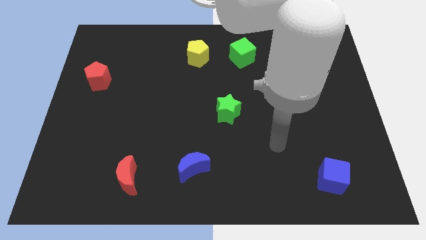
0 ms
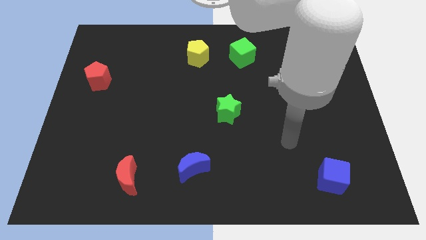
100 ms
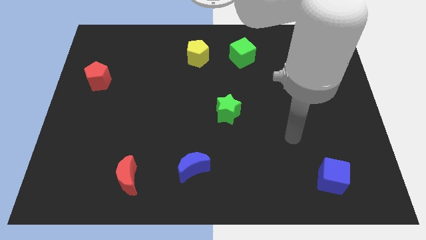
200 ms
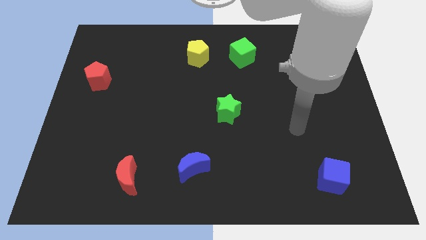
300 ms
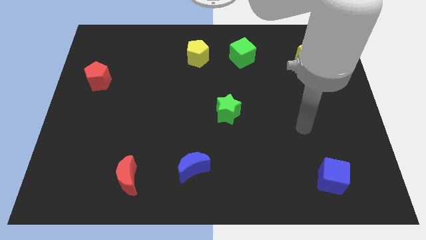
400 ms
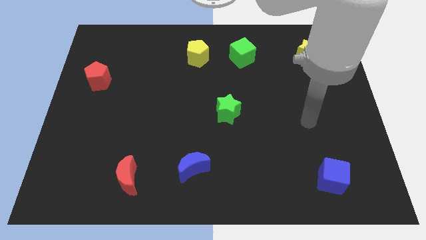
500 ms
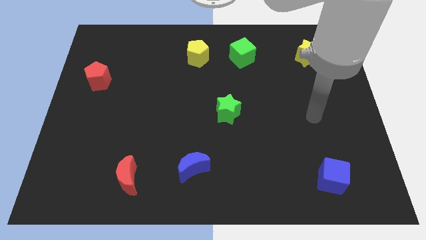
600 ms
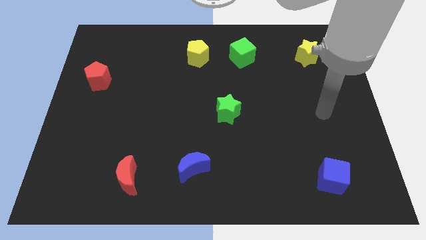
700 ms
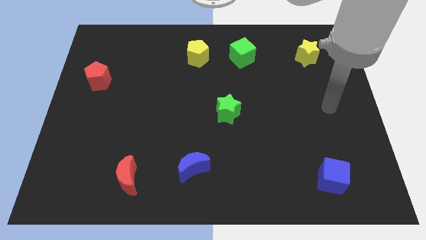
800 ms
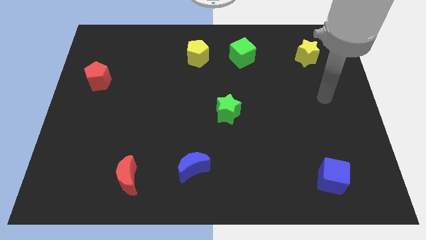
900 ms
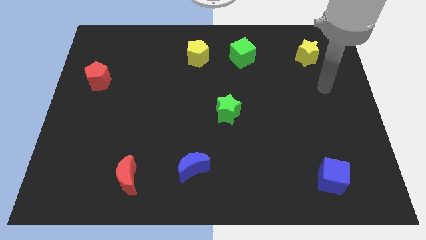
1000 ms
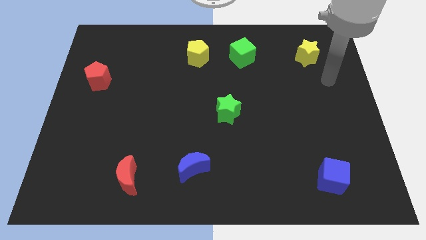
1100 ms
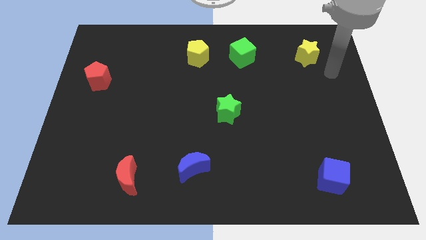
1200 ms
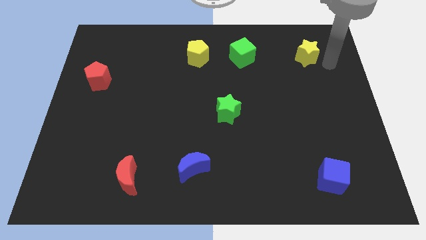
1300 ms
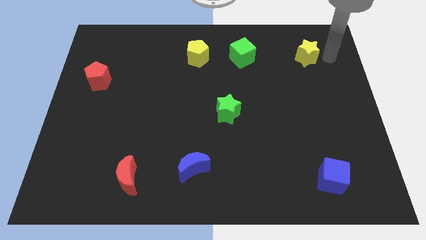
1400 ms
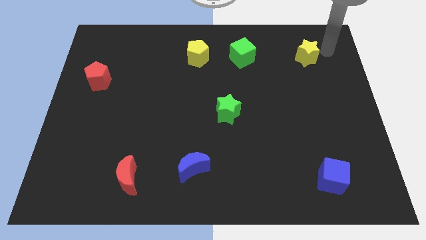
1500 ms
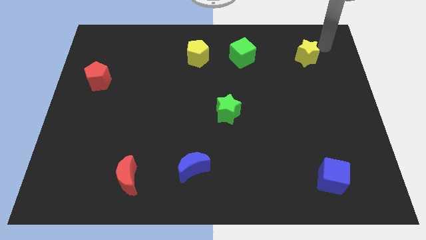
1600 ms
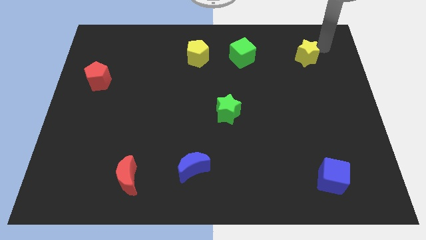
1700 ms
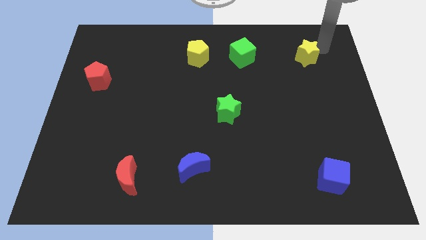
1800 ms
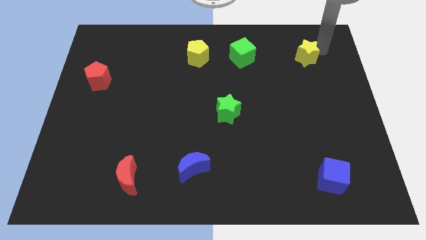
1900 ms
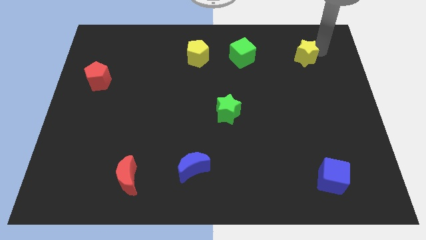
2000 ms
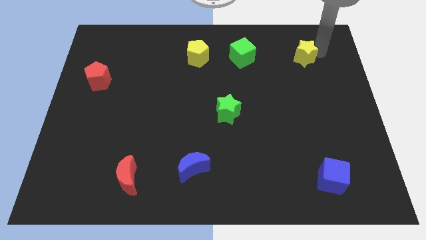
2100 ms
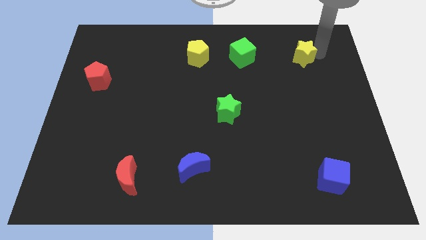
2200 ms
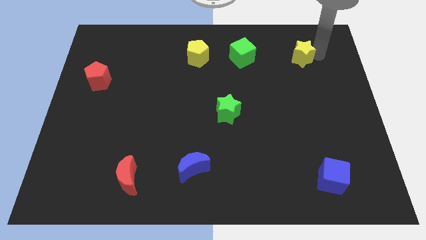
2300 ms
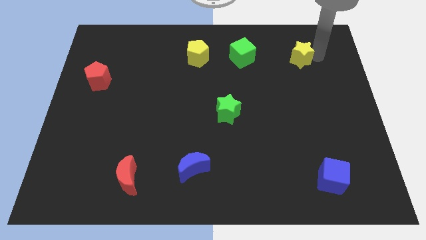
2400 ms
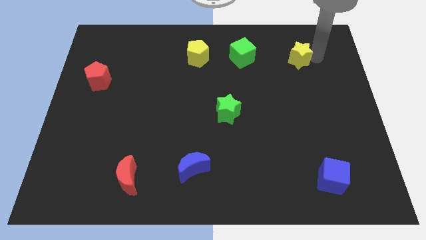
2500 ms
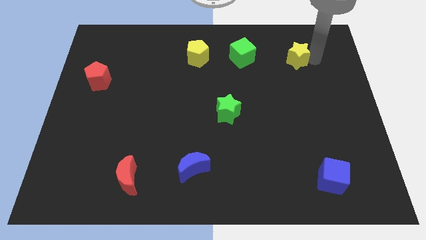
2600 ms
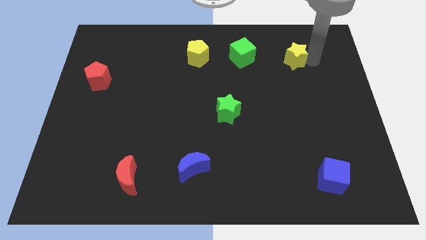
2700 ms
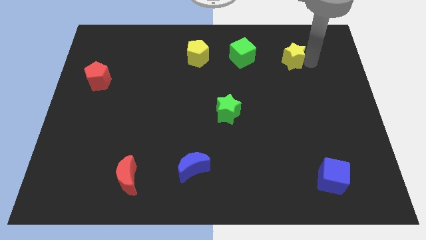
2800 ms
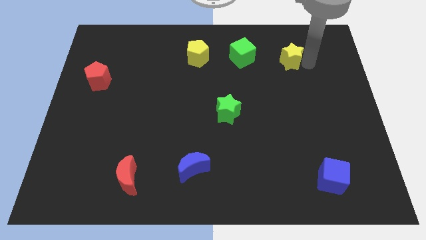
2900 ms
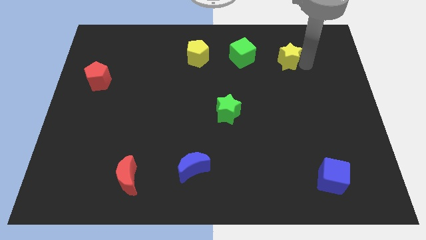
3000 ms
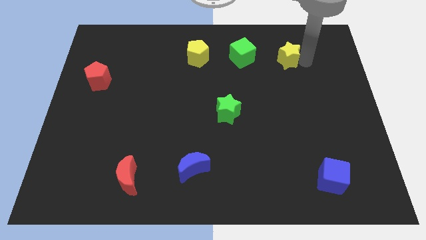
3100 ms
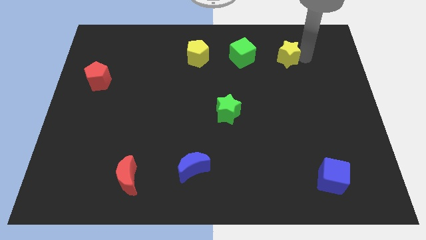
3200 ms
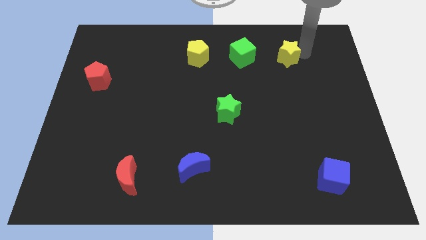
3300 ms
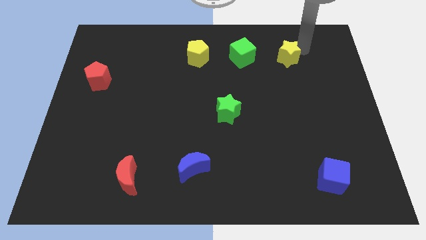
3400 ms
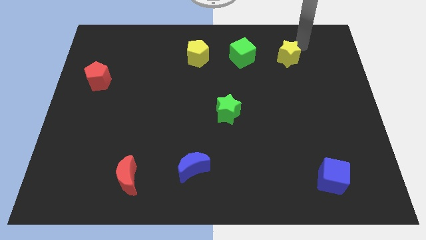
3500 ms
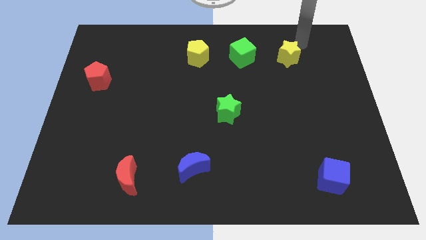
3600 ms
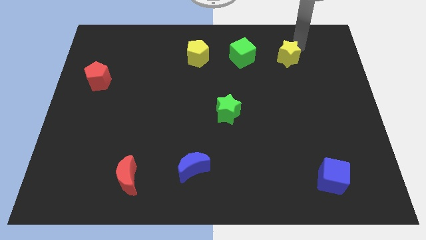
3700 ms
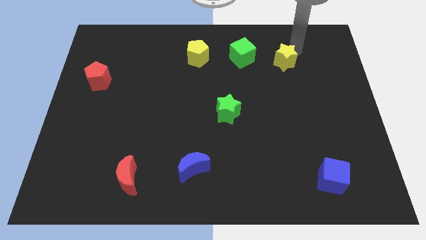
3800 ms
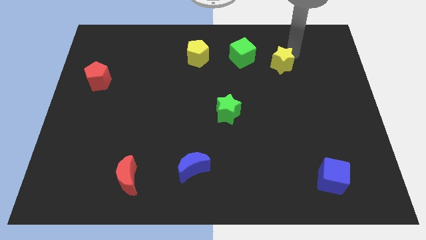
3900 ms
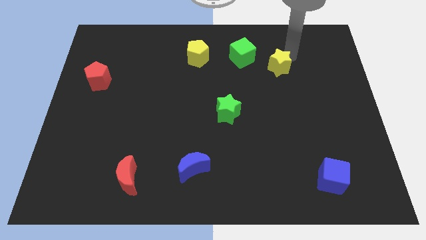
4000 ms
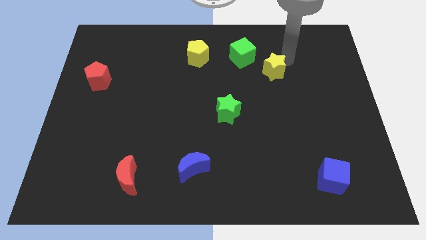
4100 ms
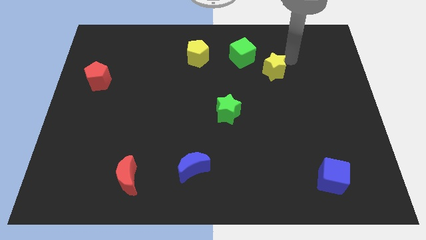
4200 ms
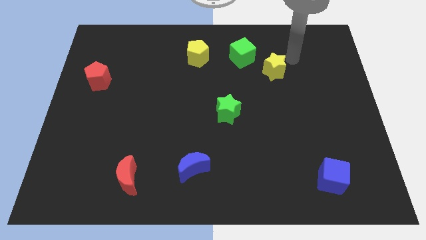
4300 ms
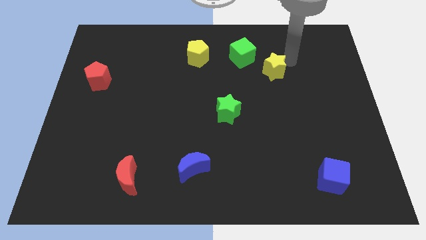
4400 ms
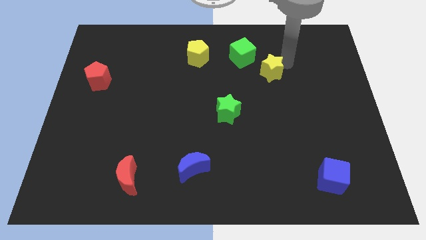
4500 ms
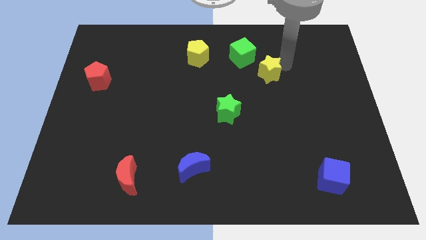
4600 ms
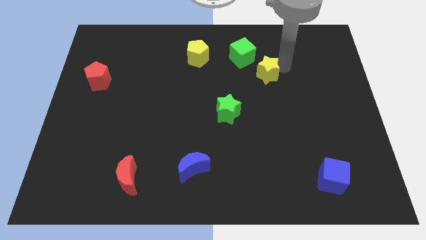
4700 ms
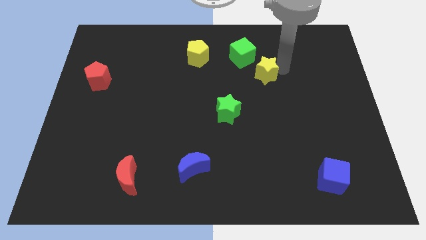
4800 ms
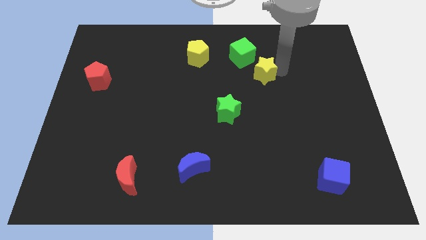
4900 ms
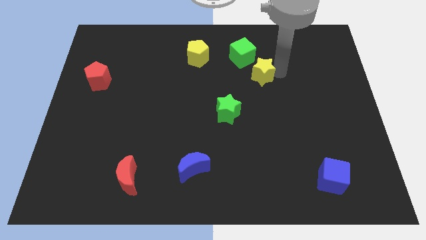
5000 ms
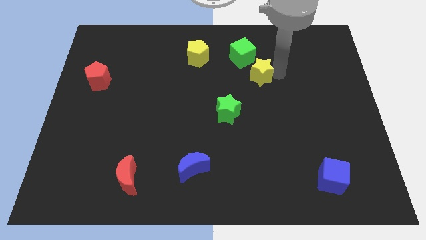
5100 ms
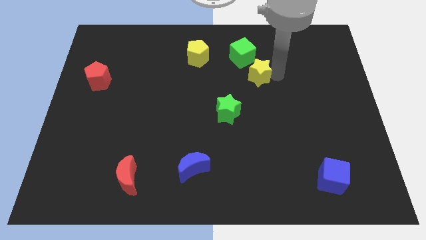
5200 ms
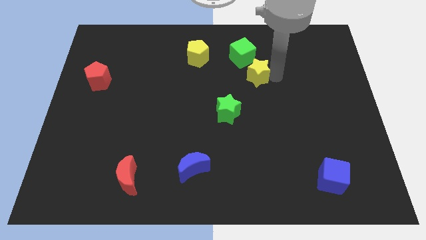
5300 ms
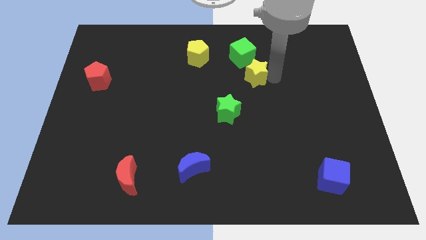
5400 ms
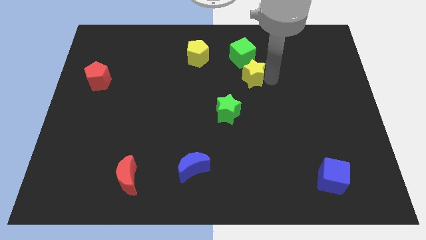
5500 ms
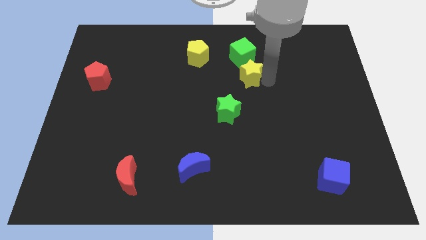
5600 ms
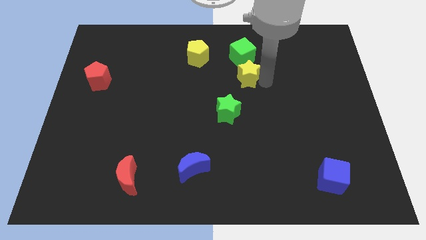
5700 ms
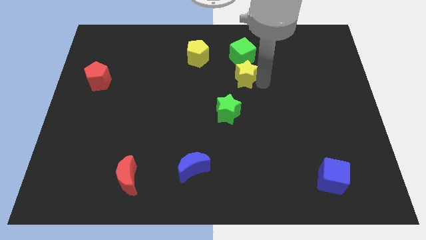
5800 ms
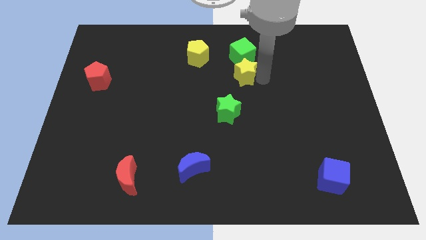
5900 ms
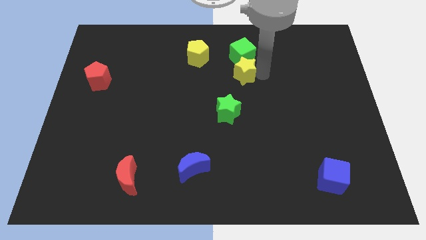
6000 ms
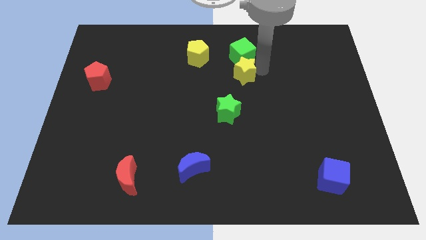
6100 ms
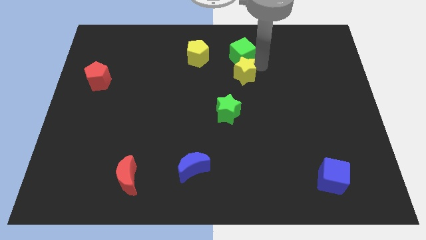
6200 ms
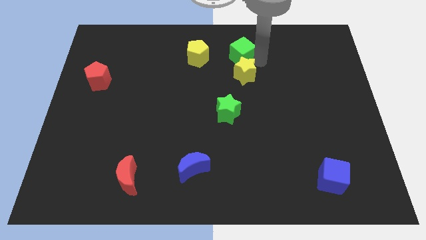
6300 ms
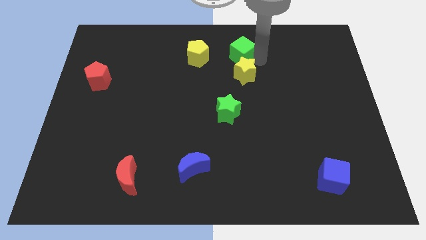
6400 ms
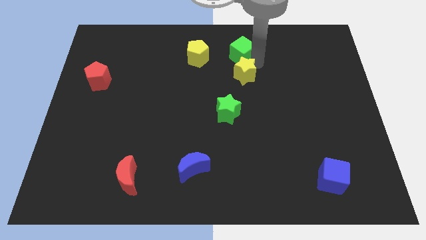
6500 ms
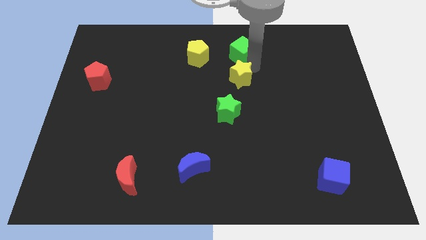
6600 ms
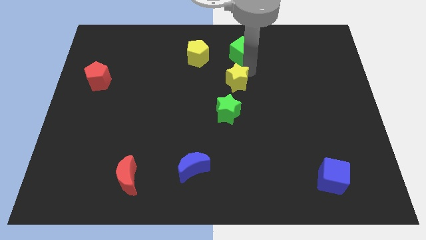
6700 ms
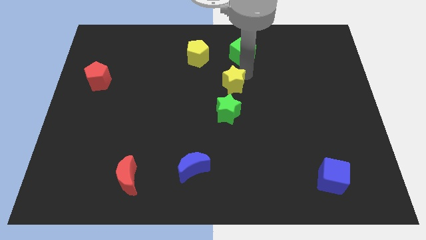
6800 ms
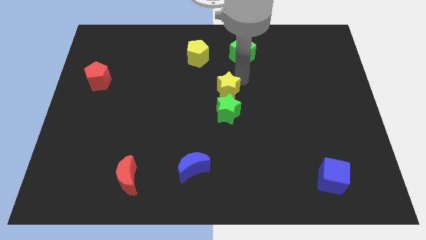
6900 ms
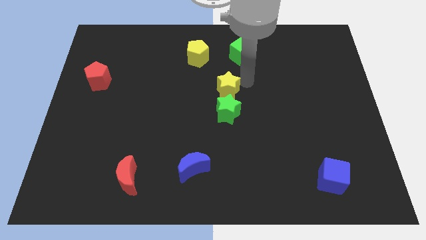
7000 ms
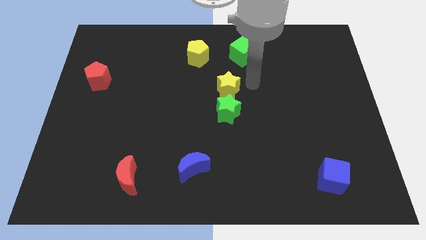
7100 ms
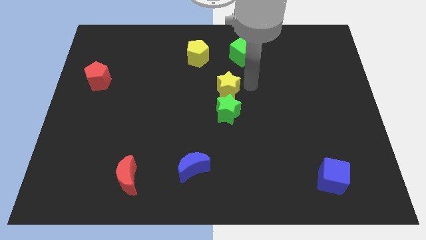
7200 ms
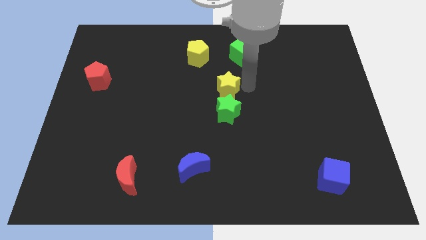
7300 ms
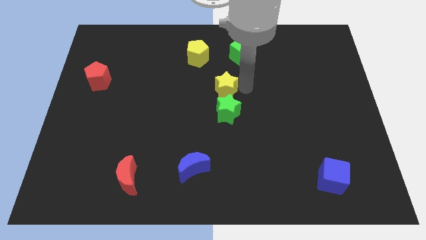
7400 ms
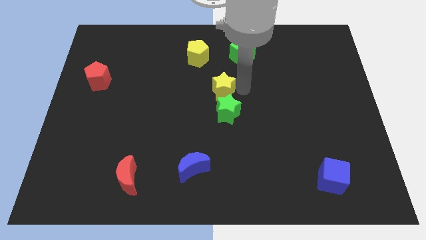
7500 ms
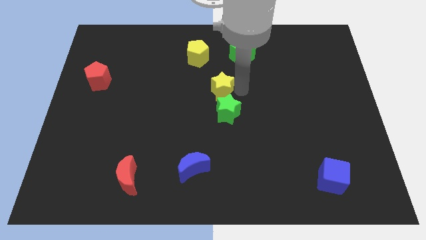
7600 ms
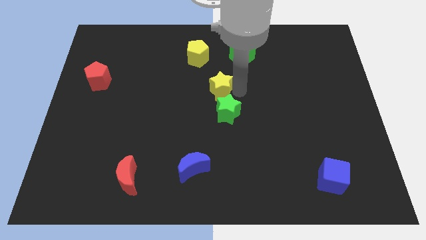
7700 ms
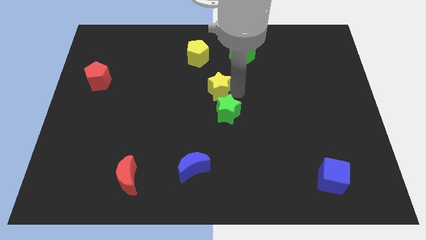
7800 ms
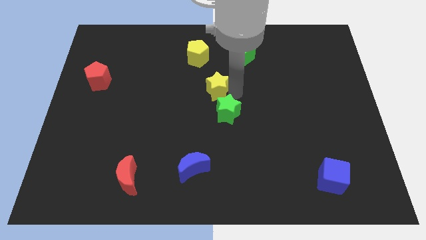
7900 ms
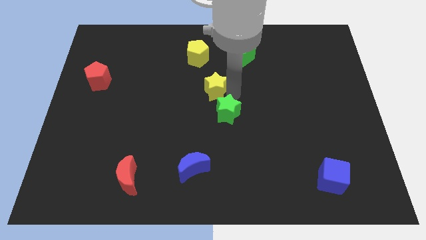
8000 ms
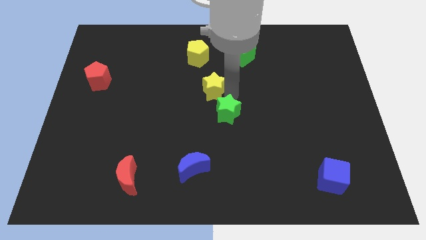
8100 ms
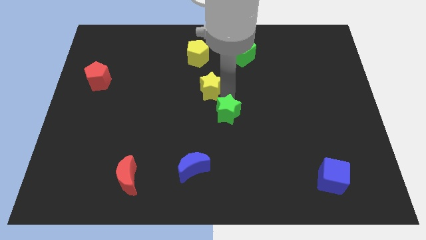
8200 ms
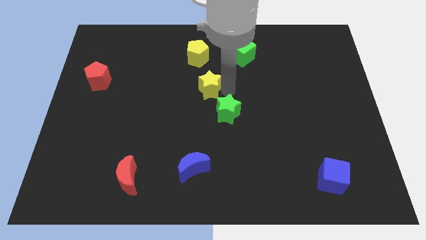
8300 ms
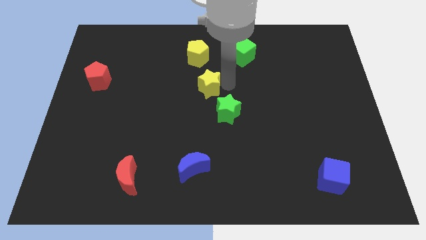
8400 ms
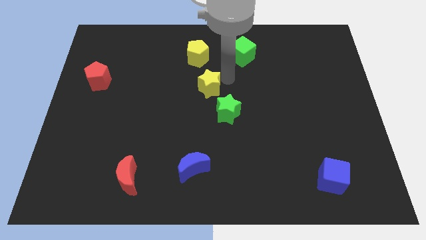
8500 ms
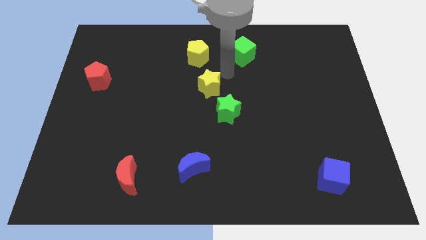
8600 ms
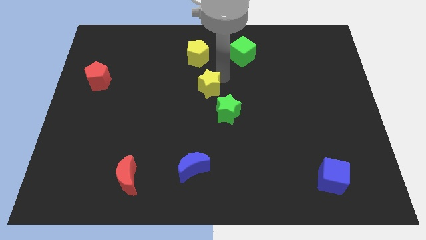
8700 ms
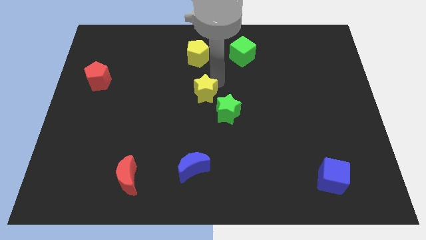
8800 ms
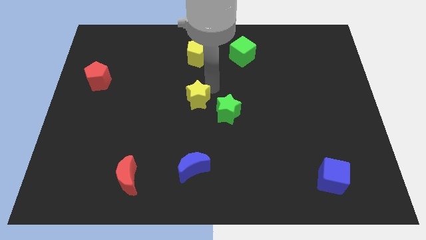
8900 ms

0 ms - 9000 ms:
slide the yellow star to the left side of the green star
